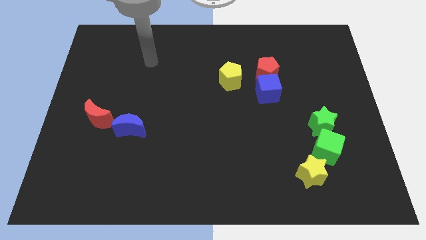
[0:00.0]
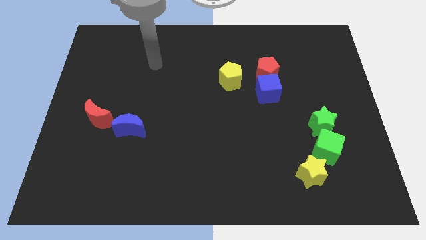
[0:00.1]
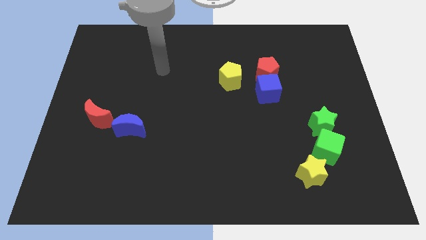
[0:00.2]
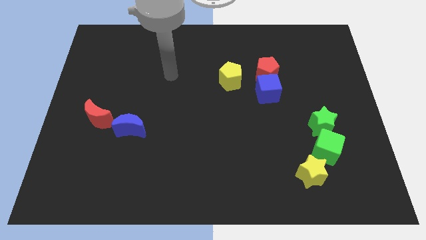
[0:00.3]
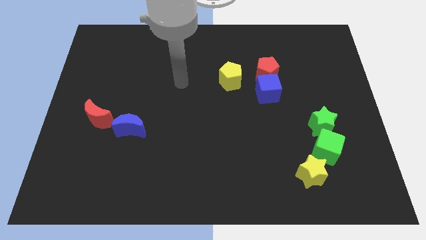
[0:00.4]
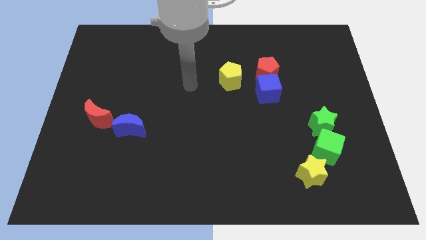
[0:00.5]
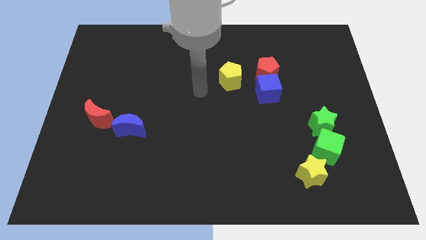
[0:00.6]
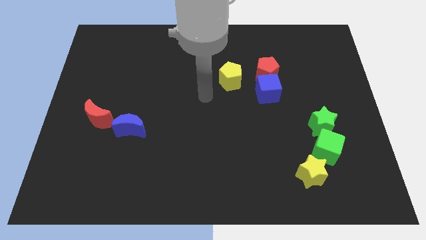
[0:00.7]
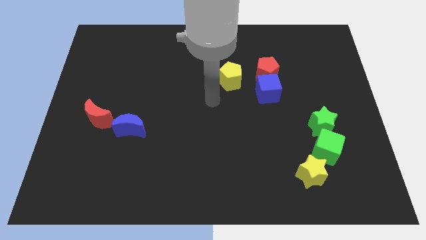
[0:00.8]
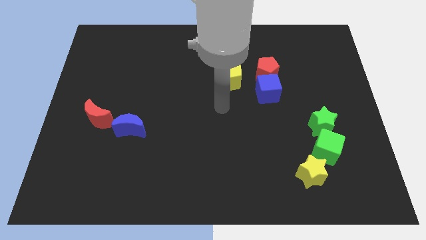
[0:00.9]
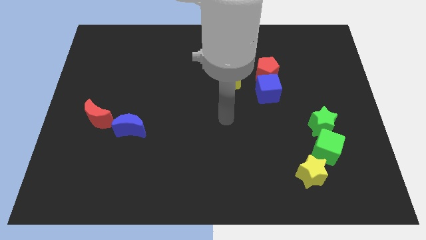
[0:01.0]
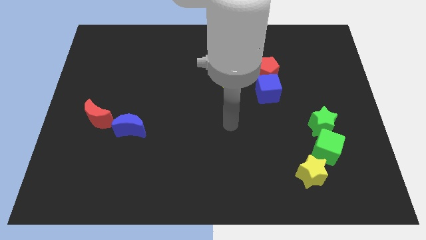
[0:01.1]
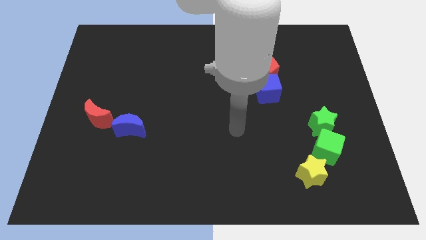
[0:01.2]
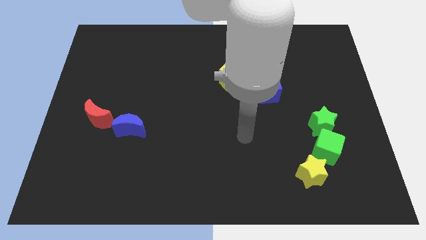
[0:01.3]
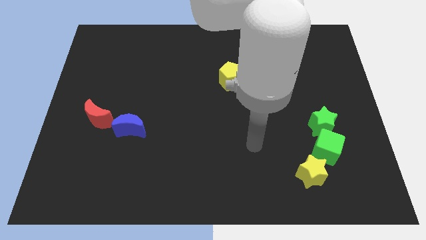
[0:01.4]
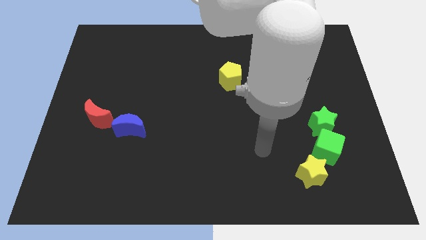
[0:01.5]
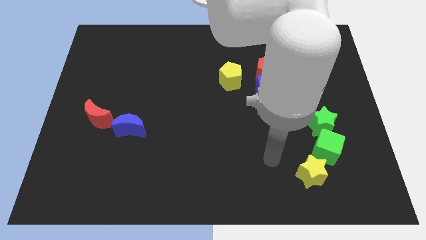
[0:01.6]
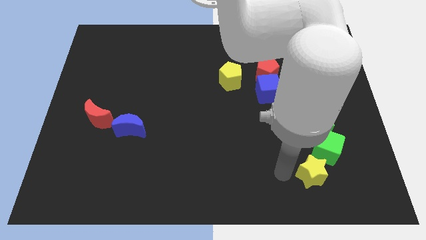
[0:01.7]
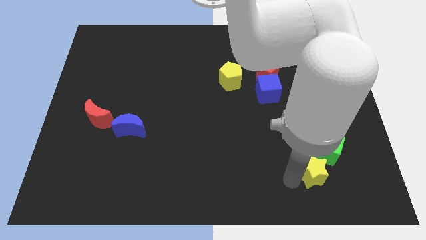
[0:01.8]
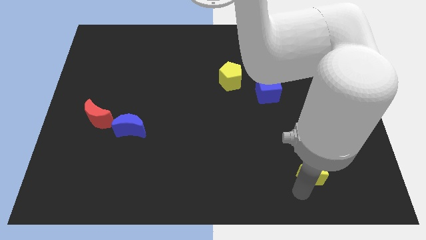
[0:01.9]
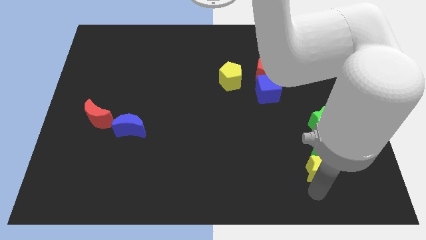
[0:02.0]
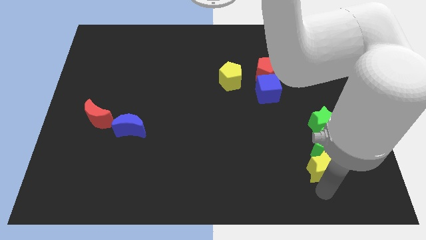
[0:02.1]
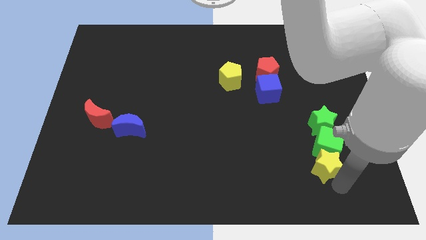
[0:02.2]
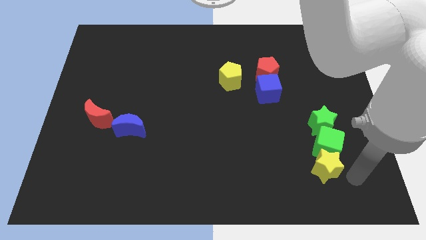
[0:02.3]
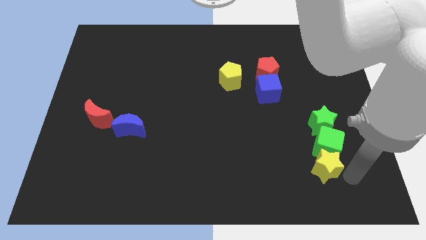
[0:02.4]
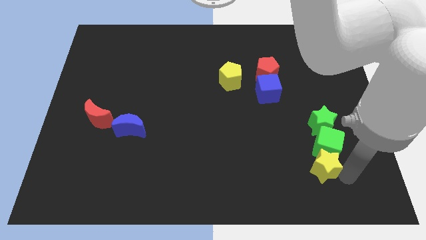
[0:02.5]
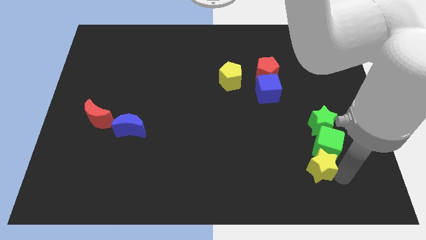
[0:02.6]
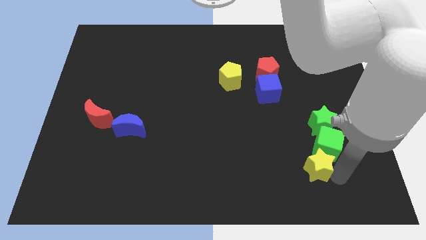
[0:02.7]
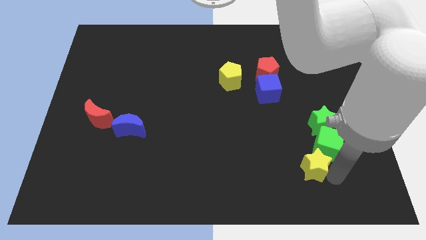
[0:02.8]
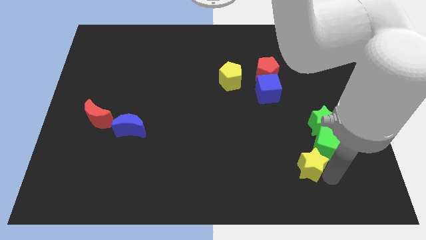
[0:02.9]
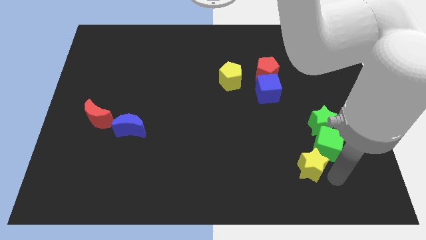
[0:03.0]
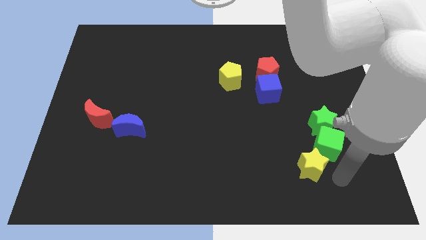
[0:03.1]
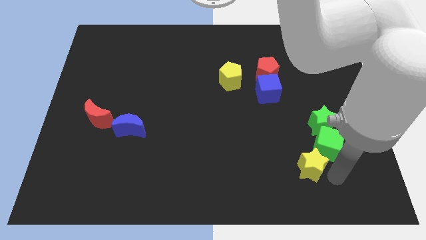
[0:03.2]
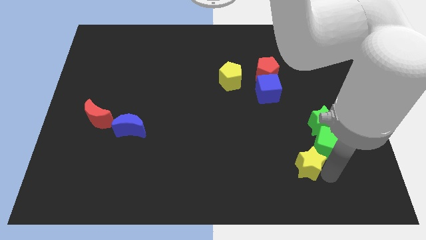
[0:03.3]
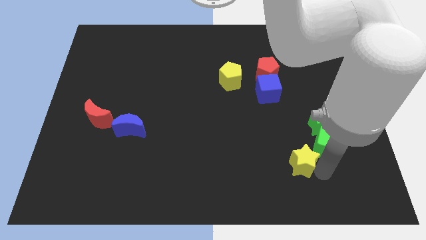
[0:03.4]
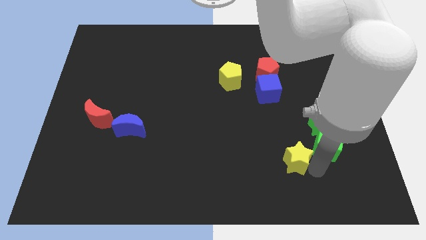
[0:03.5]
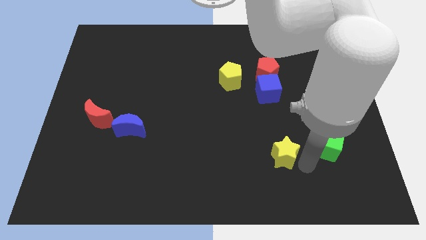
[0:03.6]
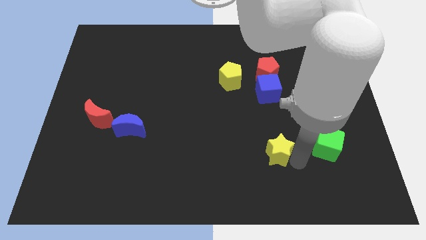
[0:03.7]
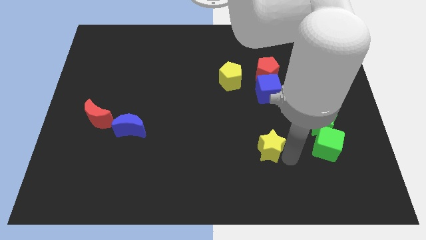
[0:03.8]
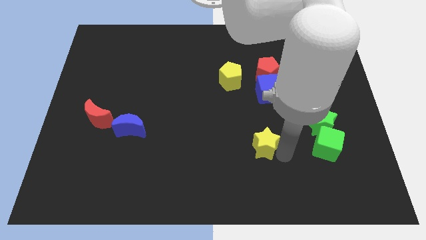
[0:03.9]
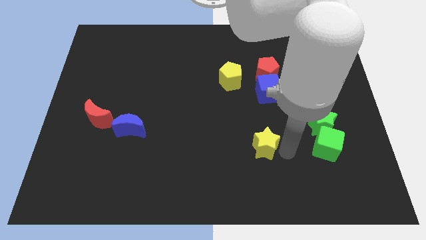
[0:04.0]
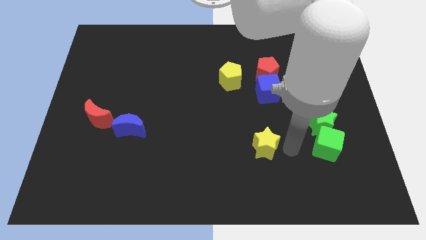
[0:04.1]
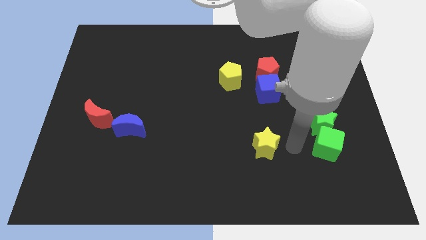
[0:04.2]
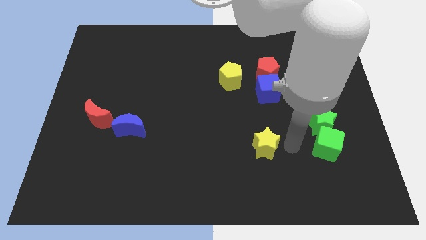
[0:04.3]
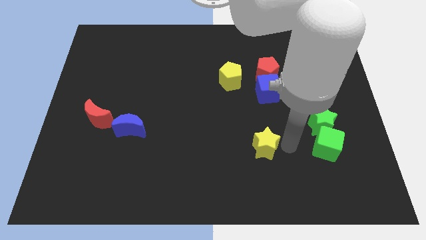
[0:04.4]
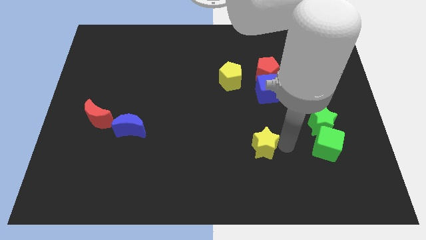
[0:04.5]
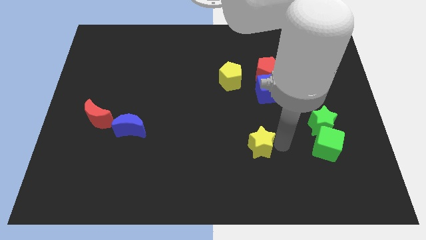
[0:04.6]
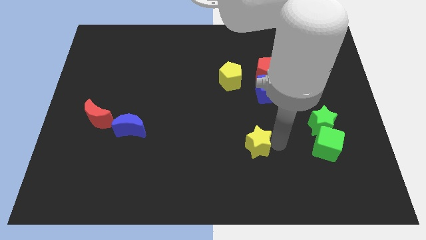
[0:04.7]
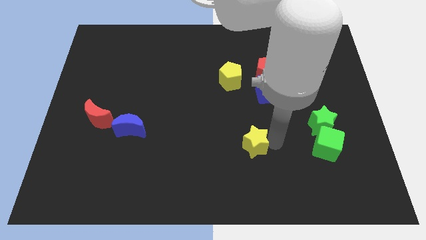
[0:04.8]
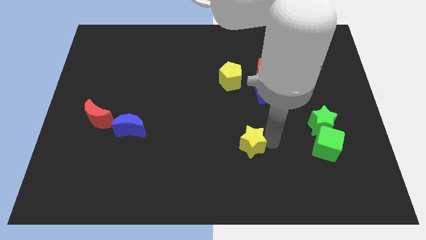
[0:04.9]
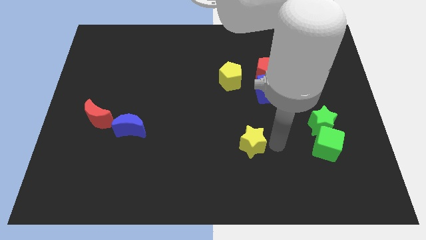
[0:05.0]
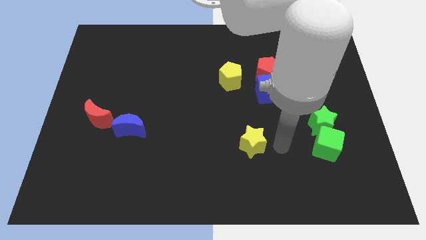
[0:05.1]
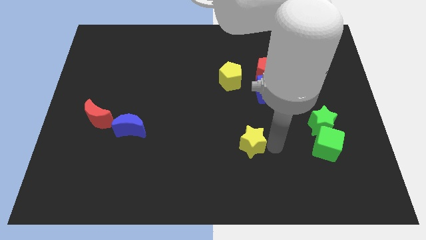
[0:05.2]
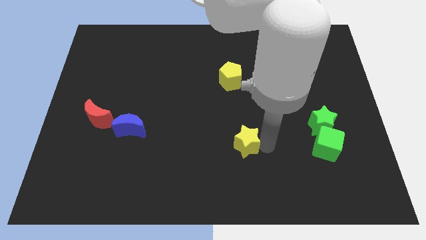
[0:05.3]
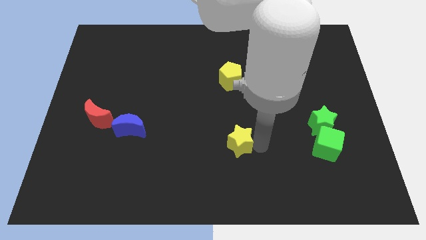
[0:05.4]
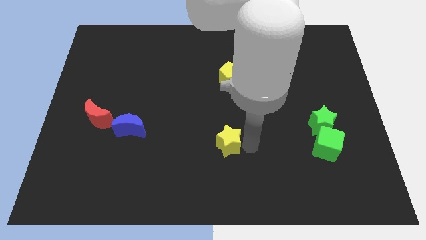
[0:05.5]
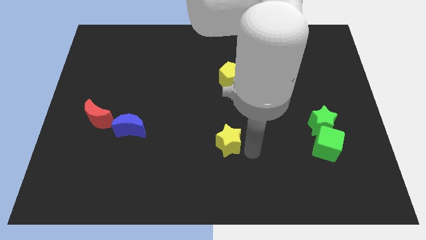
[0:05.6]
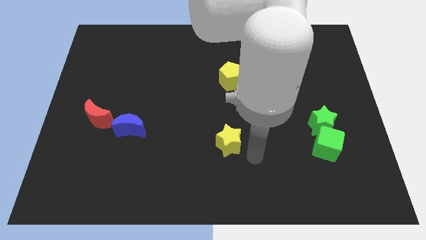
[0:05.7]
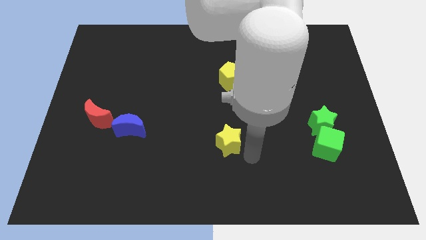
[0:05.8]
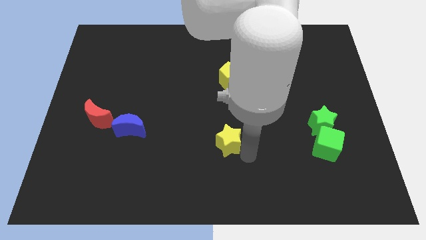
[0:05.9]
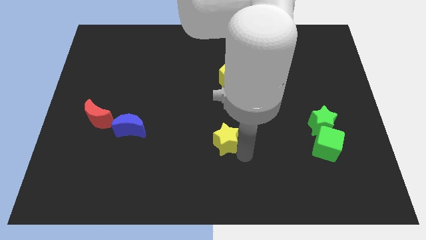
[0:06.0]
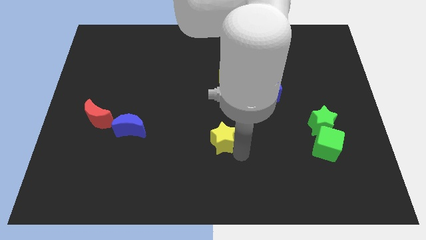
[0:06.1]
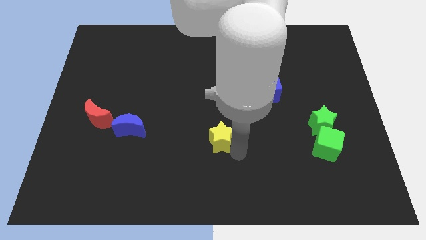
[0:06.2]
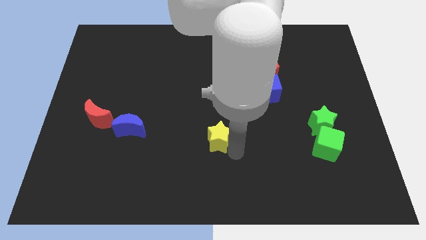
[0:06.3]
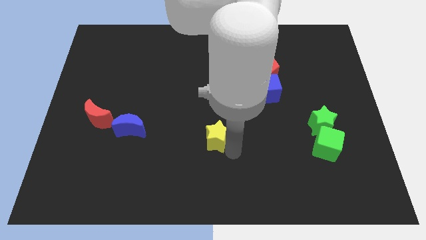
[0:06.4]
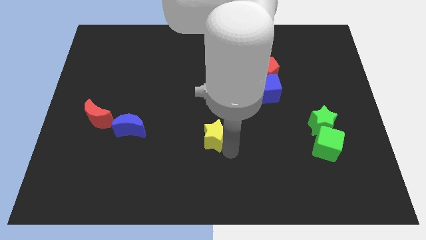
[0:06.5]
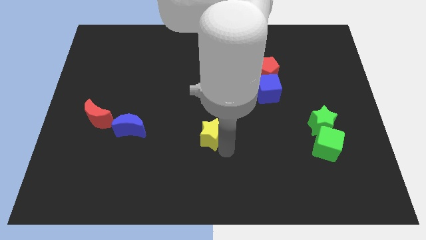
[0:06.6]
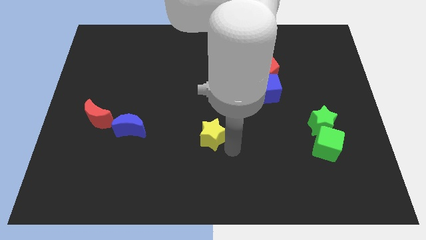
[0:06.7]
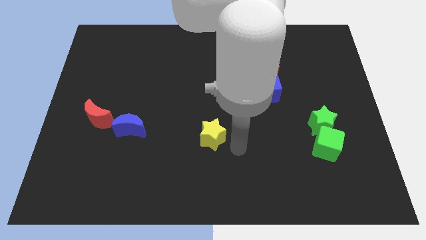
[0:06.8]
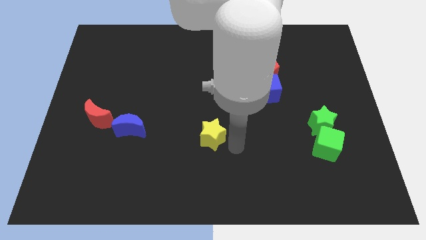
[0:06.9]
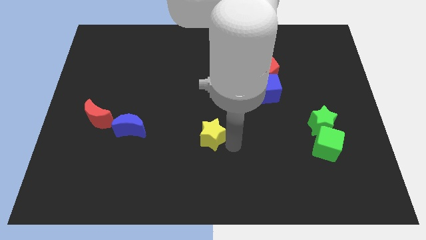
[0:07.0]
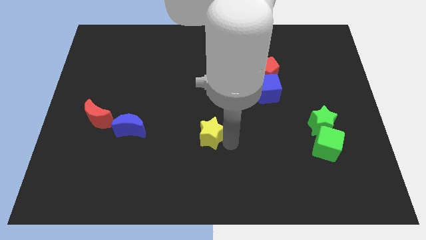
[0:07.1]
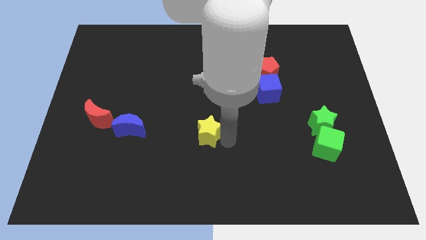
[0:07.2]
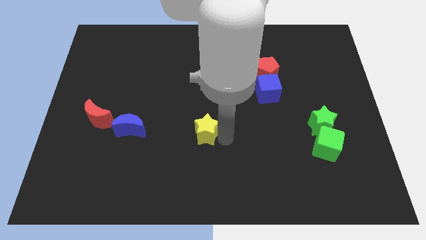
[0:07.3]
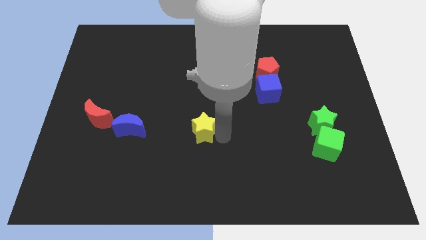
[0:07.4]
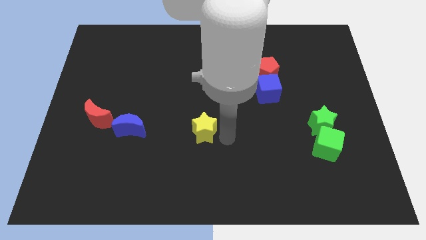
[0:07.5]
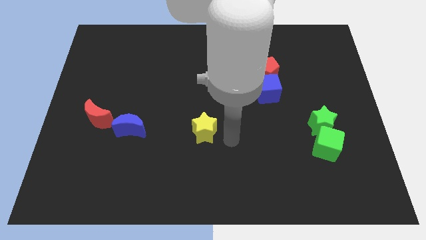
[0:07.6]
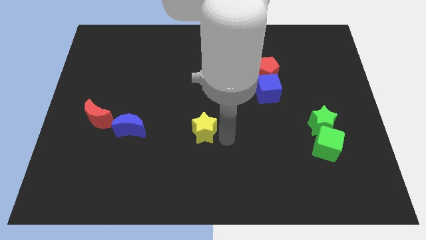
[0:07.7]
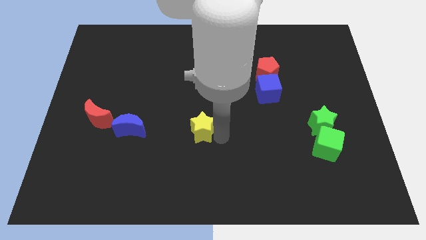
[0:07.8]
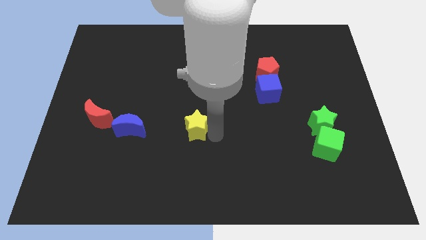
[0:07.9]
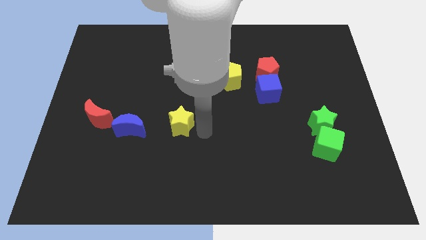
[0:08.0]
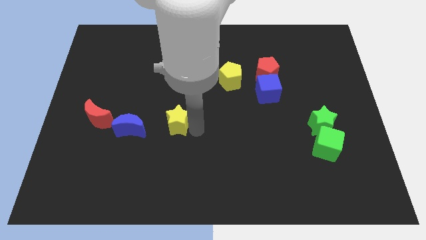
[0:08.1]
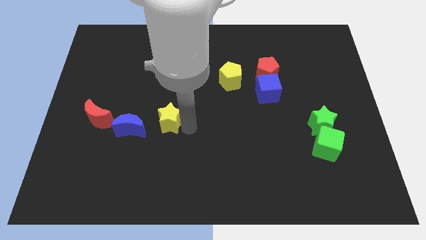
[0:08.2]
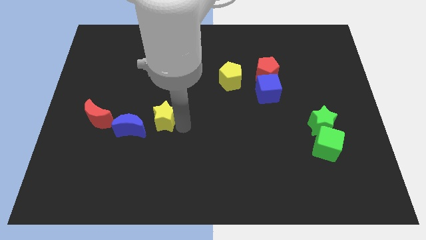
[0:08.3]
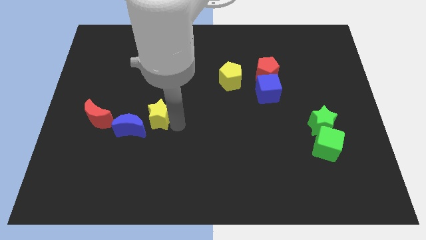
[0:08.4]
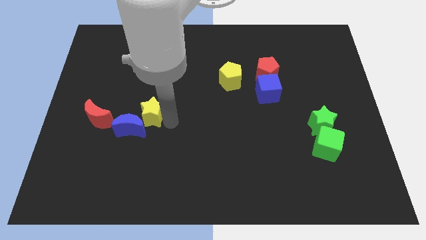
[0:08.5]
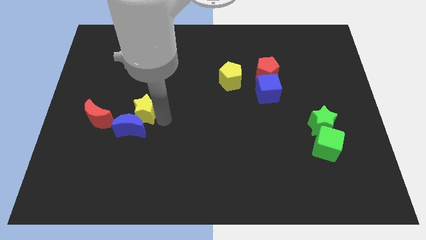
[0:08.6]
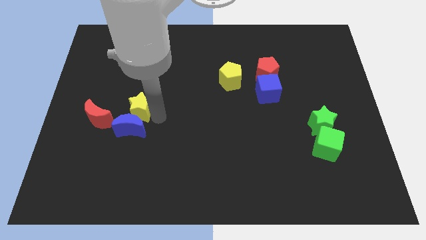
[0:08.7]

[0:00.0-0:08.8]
slide the yellow star diagonally up and to the left of the blue moon
